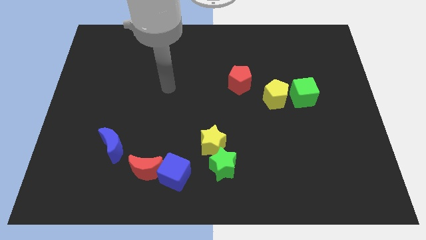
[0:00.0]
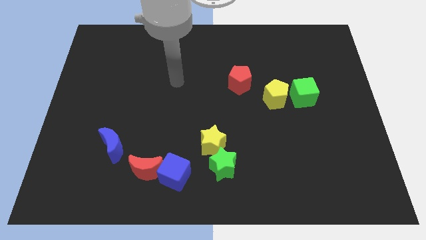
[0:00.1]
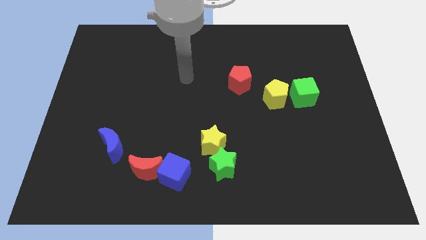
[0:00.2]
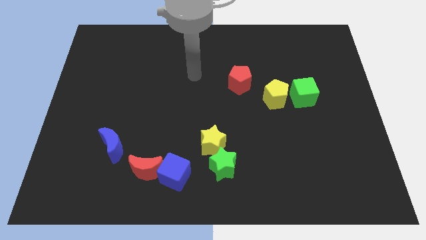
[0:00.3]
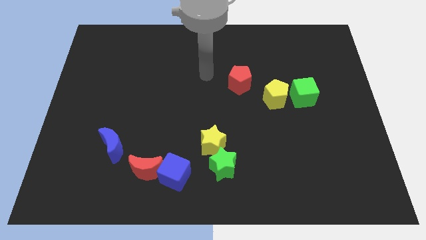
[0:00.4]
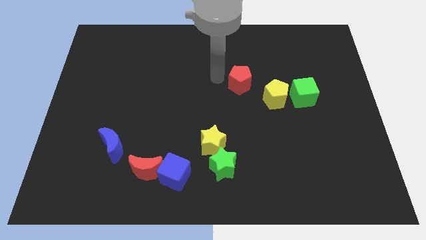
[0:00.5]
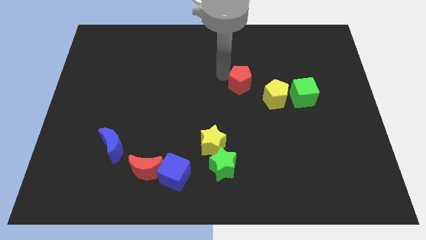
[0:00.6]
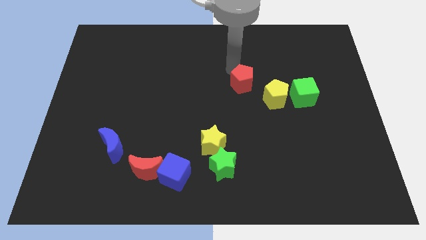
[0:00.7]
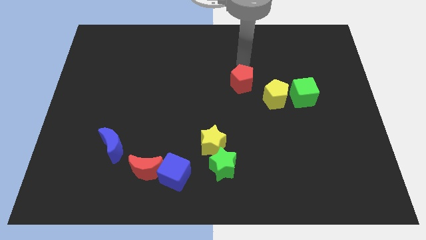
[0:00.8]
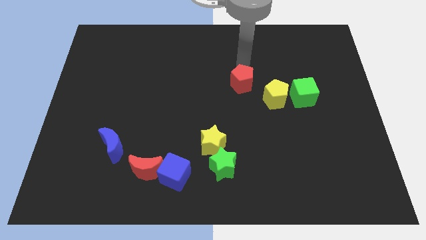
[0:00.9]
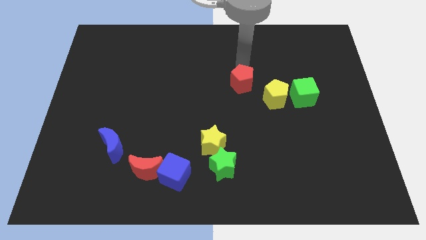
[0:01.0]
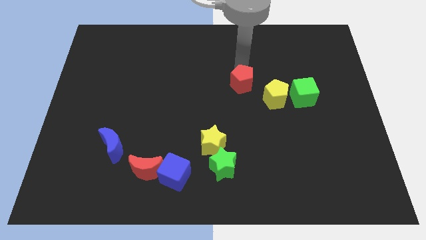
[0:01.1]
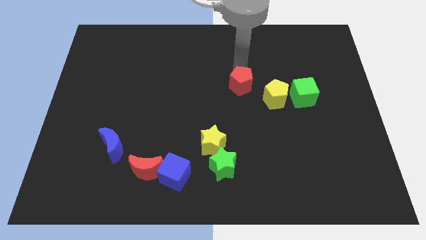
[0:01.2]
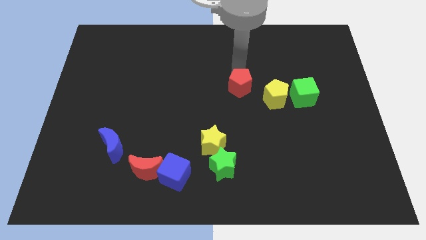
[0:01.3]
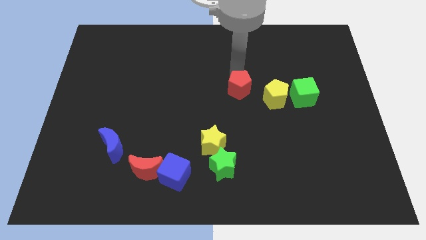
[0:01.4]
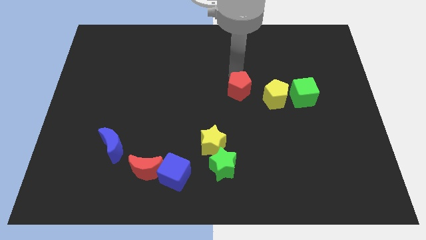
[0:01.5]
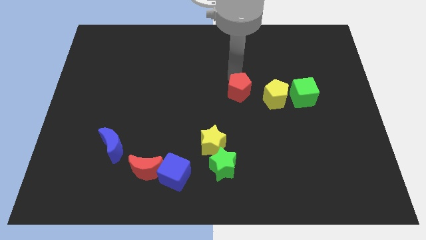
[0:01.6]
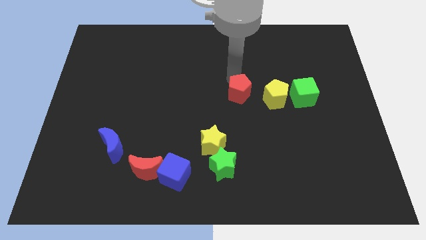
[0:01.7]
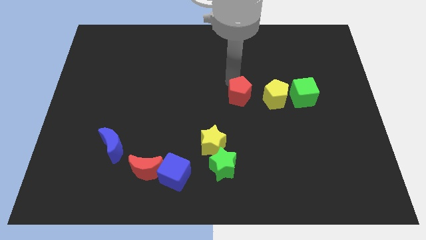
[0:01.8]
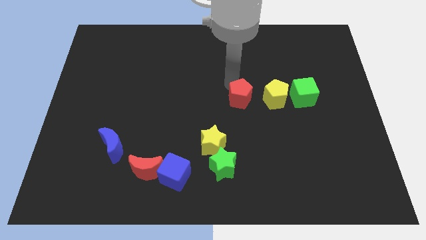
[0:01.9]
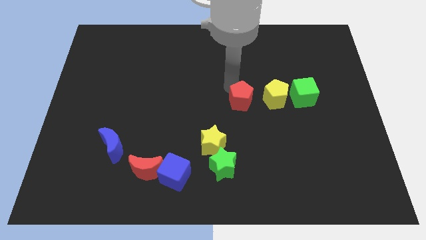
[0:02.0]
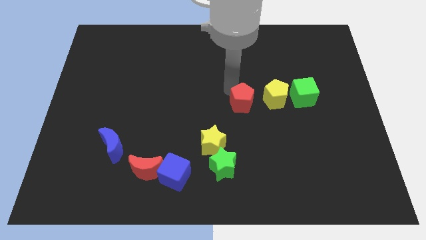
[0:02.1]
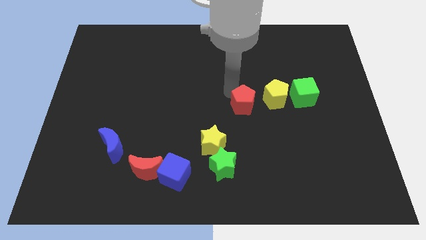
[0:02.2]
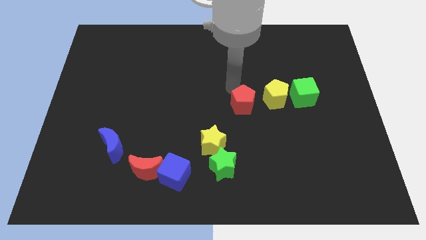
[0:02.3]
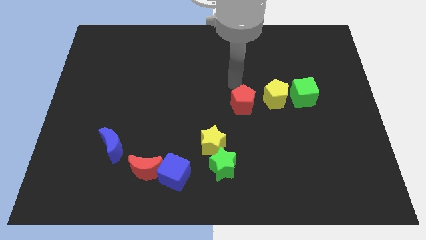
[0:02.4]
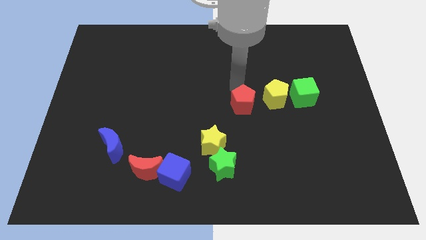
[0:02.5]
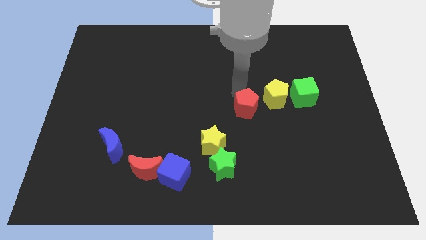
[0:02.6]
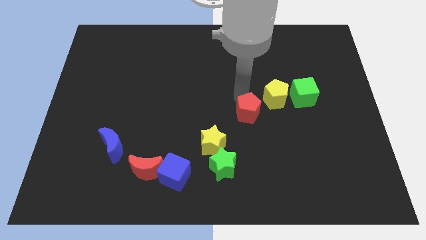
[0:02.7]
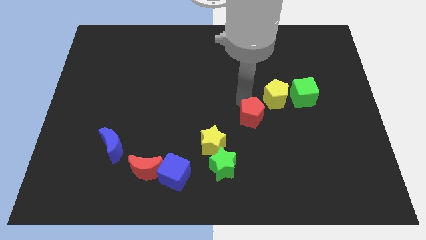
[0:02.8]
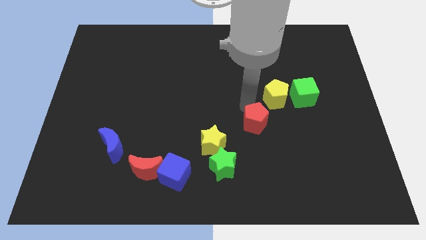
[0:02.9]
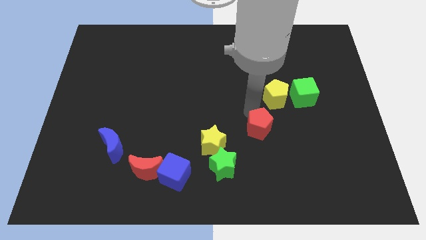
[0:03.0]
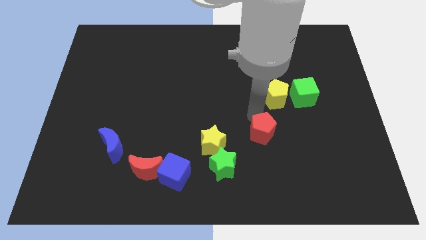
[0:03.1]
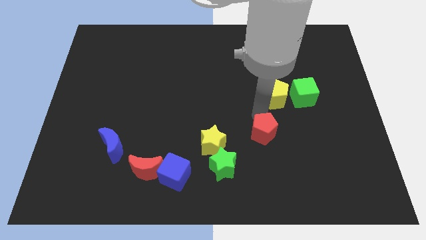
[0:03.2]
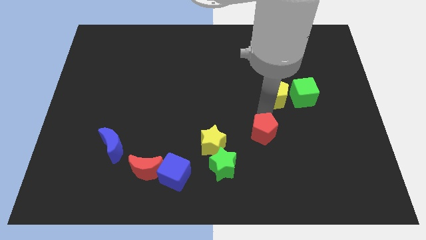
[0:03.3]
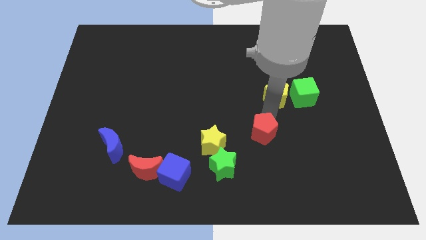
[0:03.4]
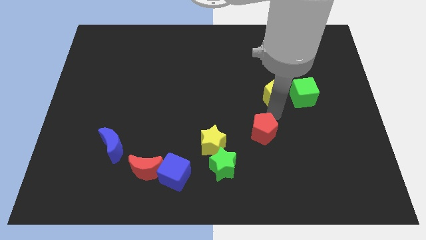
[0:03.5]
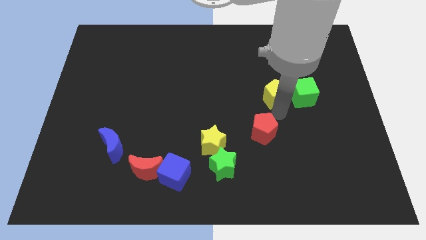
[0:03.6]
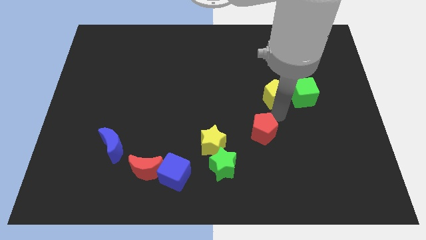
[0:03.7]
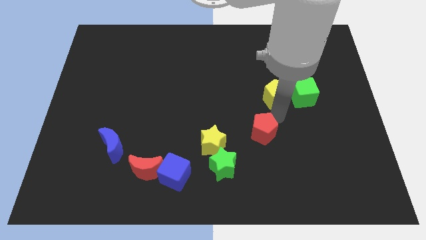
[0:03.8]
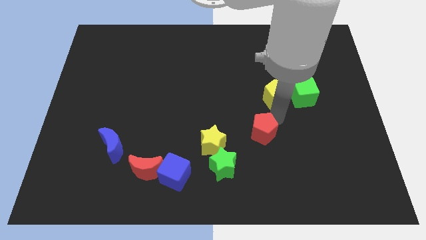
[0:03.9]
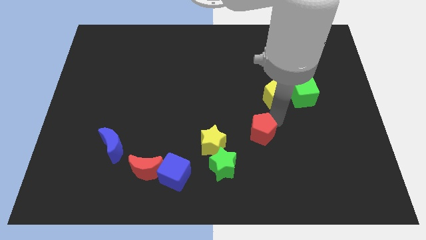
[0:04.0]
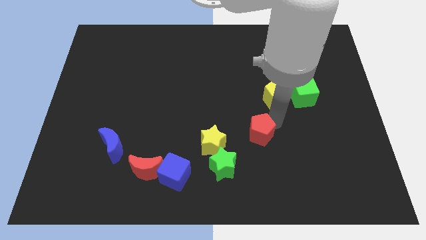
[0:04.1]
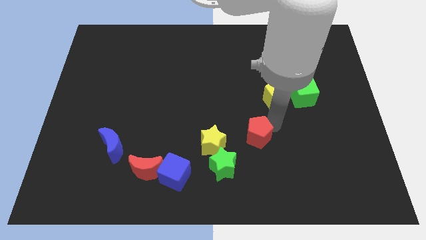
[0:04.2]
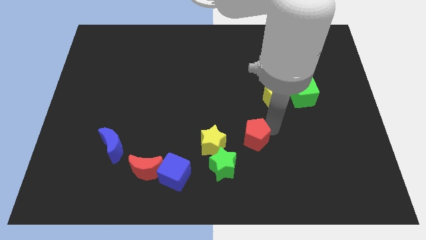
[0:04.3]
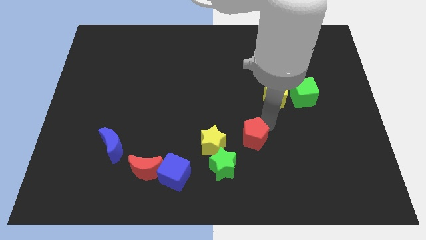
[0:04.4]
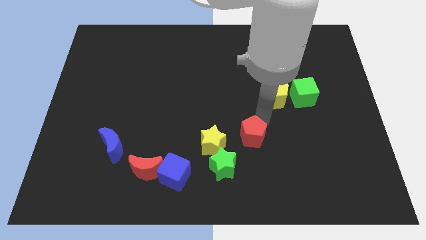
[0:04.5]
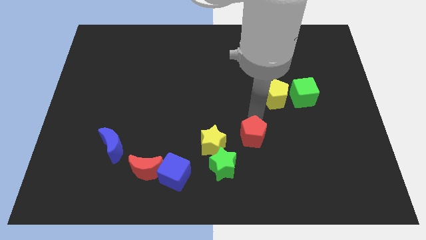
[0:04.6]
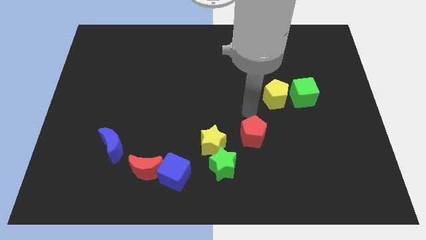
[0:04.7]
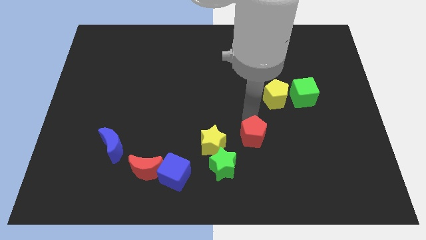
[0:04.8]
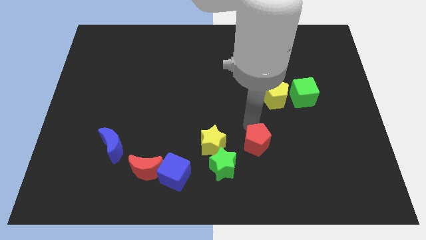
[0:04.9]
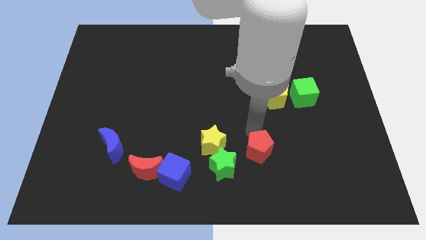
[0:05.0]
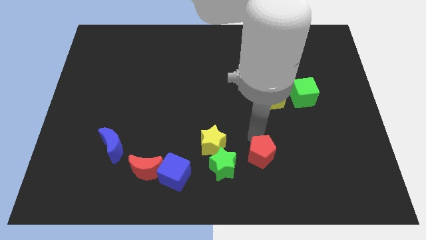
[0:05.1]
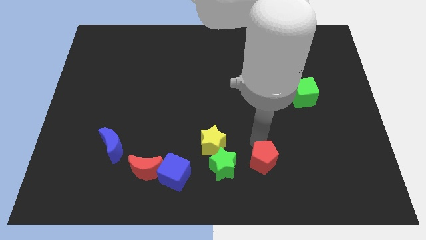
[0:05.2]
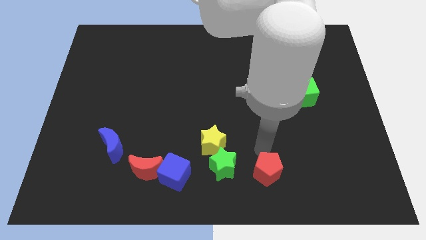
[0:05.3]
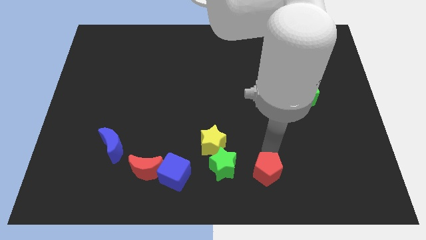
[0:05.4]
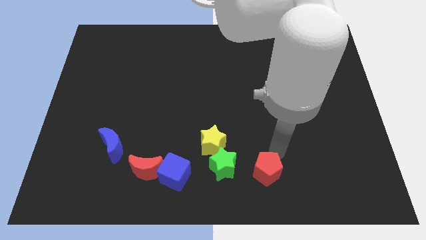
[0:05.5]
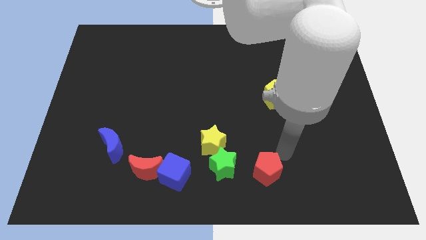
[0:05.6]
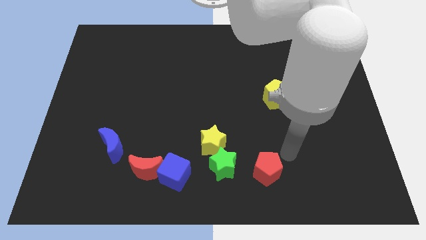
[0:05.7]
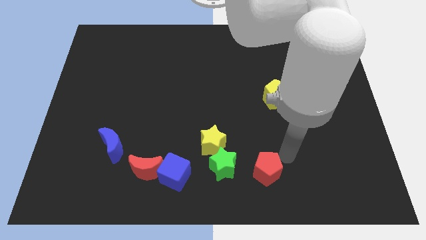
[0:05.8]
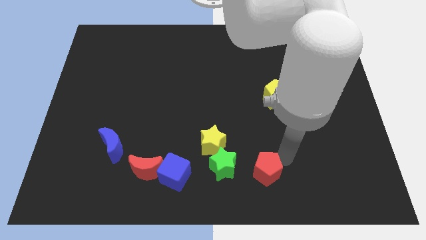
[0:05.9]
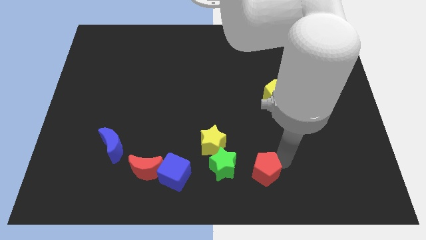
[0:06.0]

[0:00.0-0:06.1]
put the red pentagon to the bottom

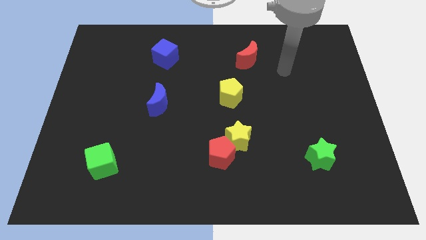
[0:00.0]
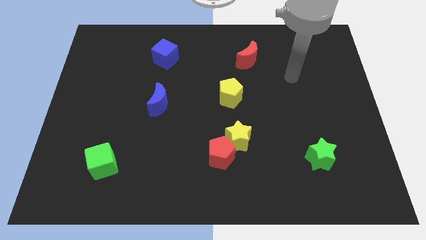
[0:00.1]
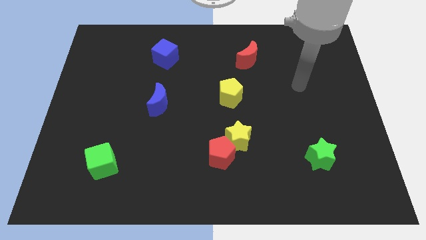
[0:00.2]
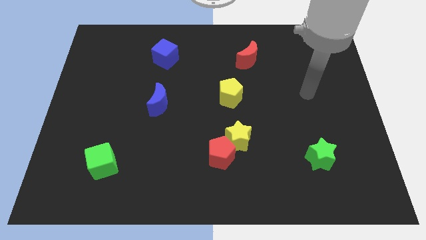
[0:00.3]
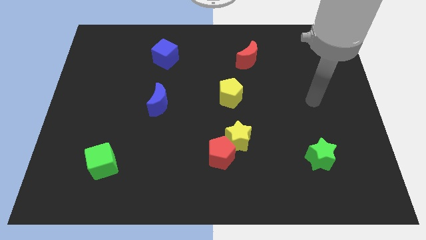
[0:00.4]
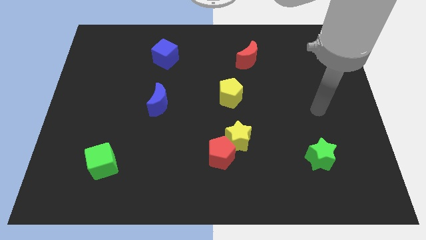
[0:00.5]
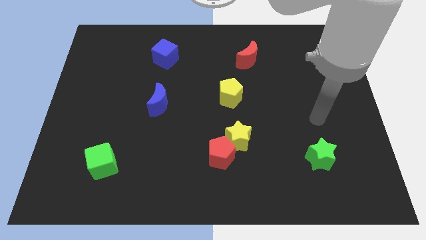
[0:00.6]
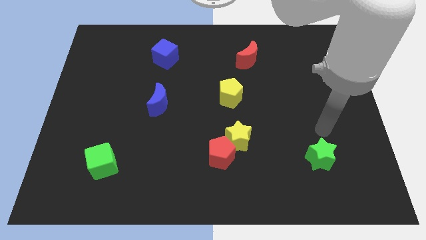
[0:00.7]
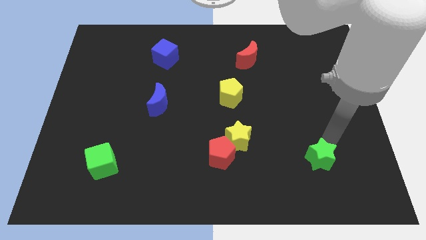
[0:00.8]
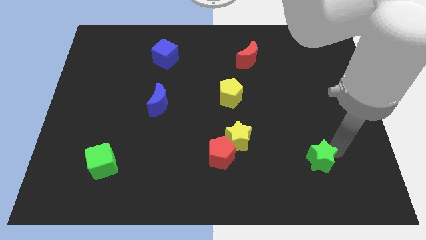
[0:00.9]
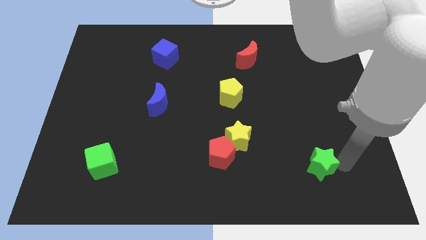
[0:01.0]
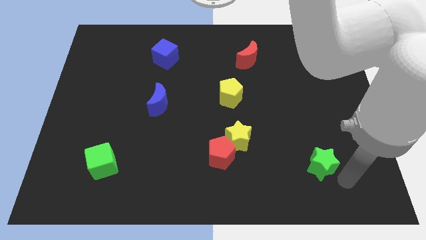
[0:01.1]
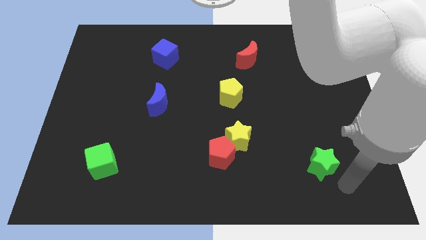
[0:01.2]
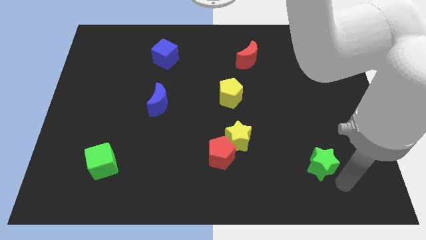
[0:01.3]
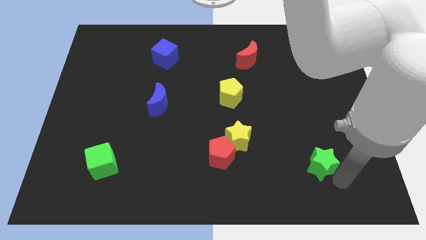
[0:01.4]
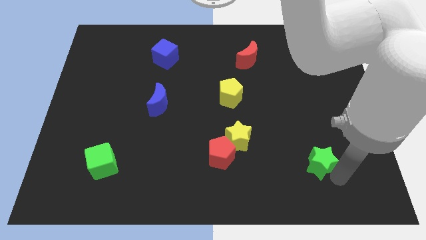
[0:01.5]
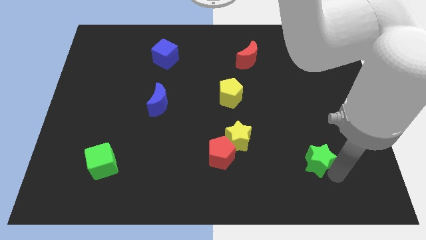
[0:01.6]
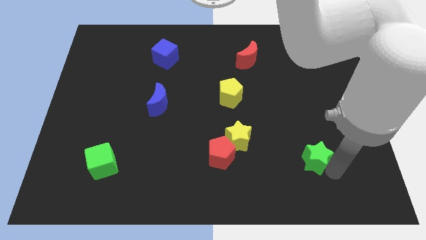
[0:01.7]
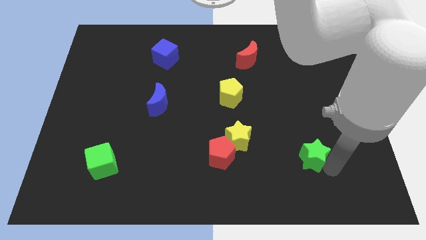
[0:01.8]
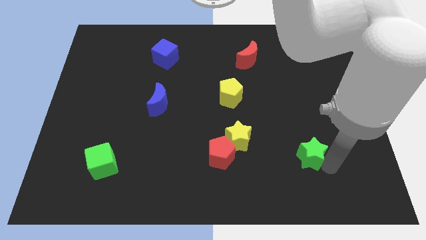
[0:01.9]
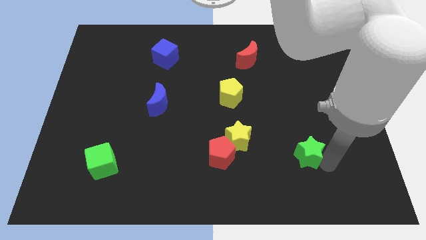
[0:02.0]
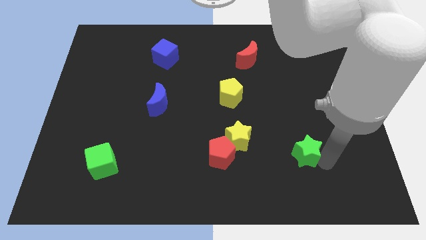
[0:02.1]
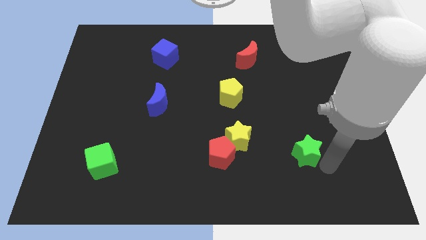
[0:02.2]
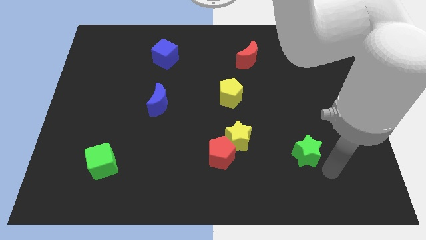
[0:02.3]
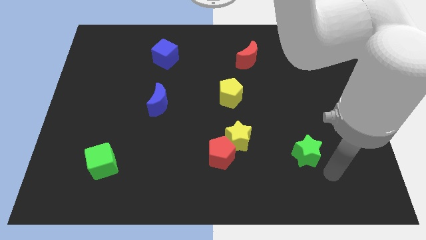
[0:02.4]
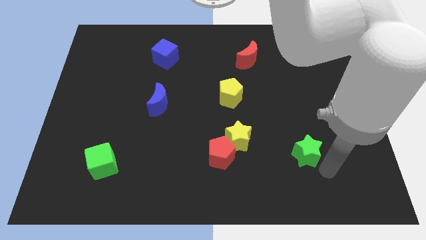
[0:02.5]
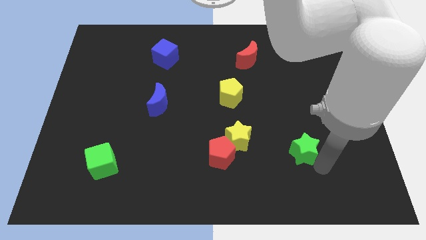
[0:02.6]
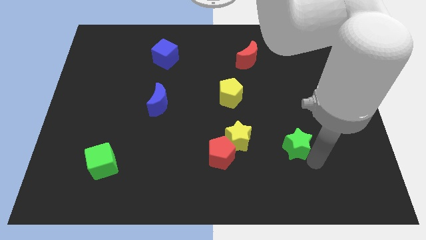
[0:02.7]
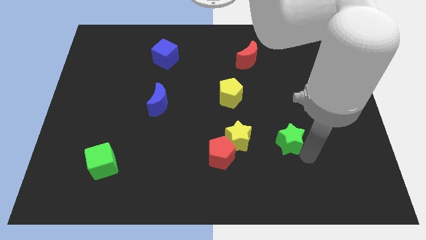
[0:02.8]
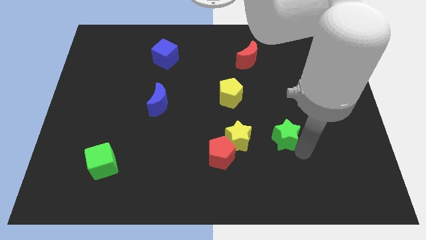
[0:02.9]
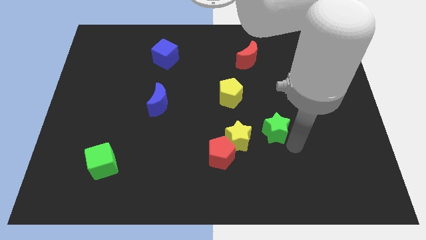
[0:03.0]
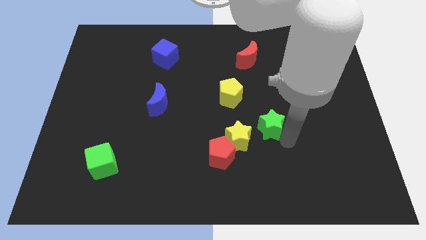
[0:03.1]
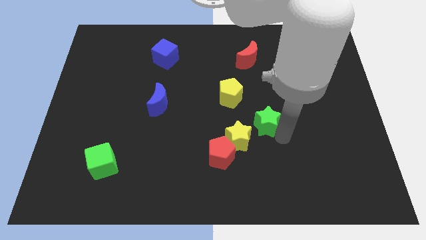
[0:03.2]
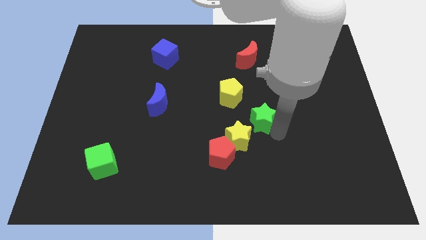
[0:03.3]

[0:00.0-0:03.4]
put the green star to the middle of the board
